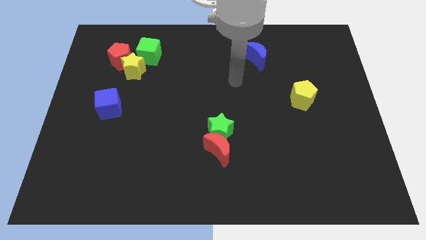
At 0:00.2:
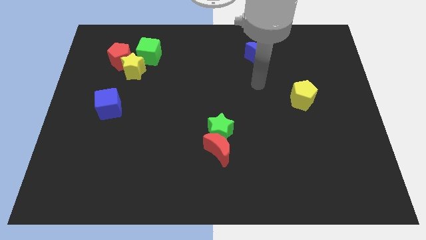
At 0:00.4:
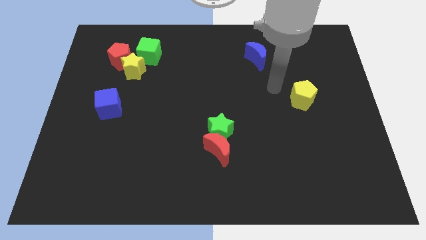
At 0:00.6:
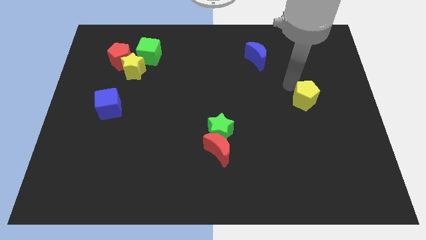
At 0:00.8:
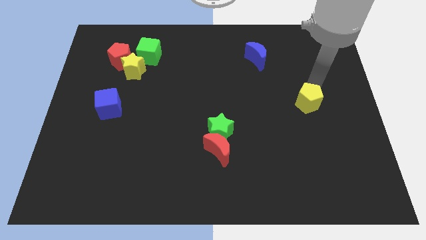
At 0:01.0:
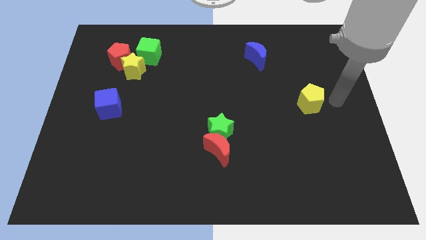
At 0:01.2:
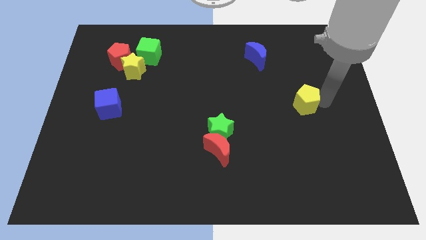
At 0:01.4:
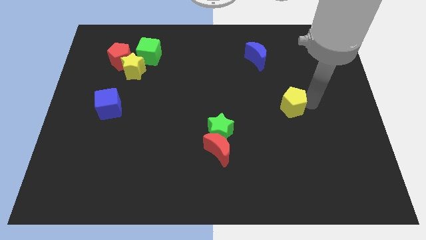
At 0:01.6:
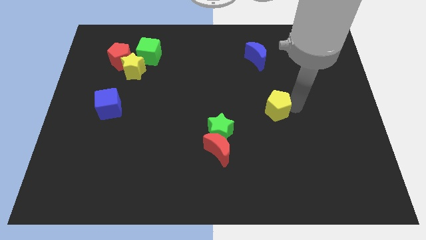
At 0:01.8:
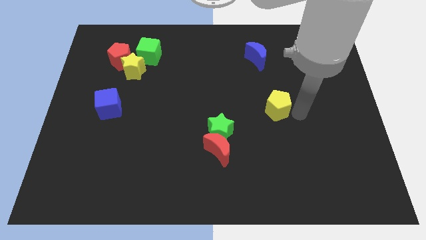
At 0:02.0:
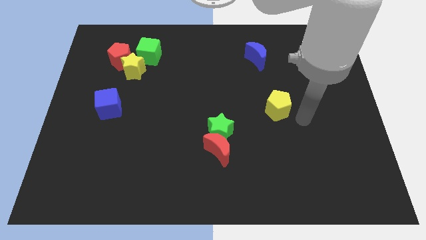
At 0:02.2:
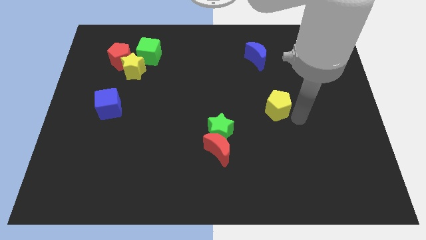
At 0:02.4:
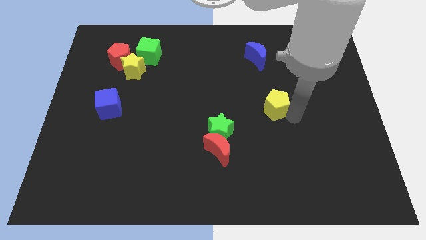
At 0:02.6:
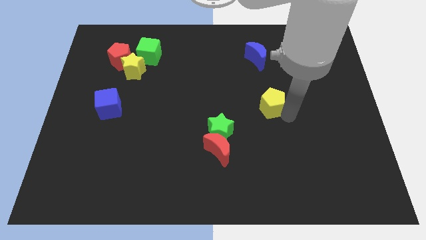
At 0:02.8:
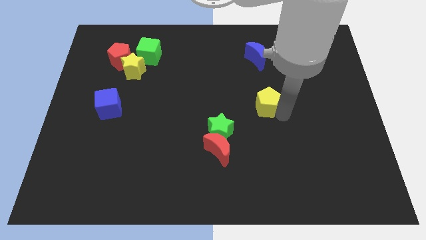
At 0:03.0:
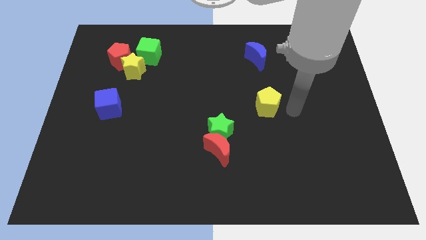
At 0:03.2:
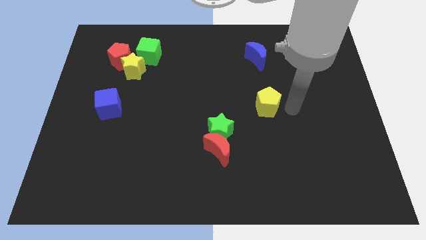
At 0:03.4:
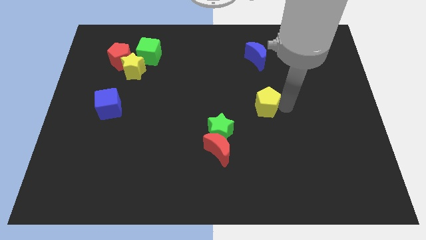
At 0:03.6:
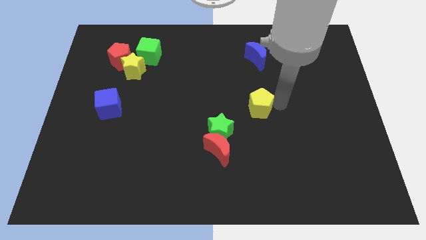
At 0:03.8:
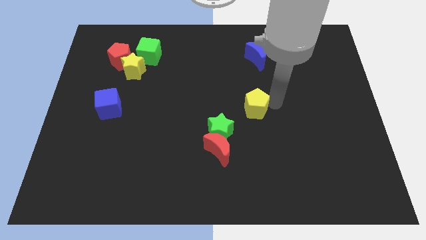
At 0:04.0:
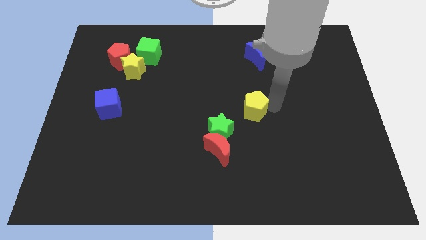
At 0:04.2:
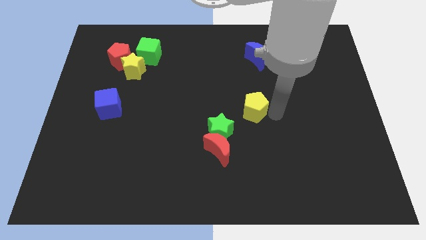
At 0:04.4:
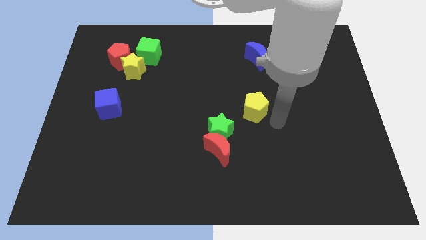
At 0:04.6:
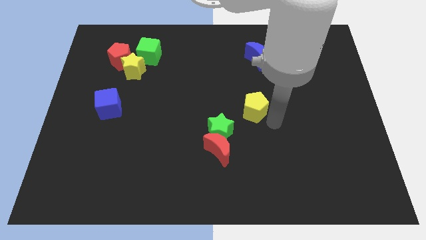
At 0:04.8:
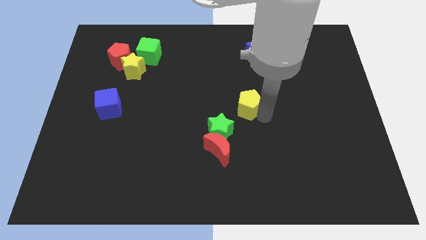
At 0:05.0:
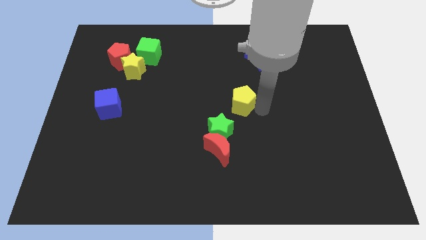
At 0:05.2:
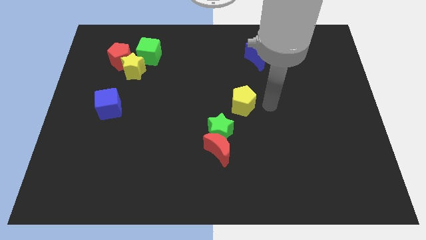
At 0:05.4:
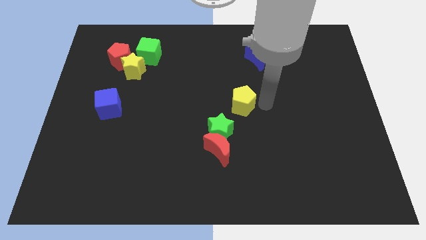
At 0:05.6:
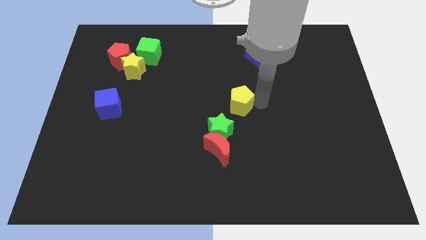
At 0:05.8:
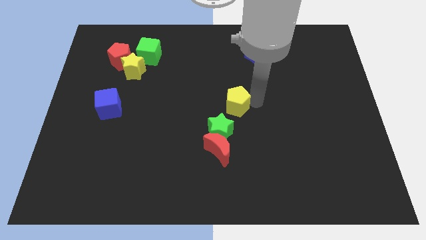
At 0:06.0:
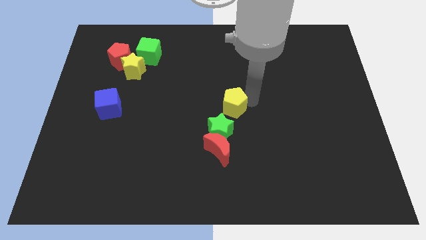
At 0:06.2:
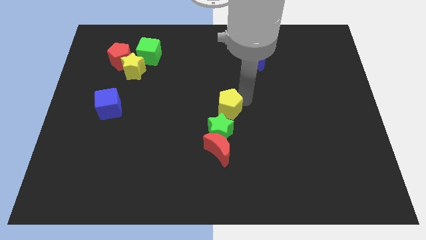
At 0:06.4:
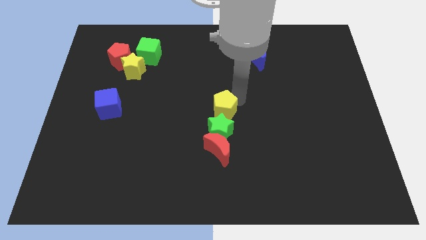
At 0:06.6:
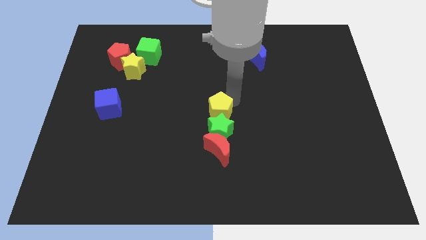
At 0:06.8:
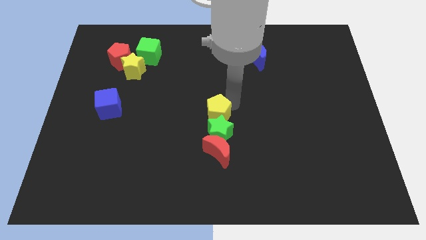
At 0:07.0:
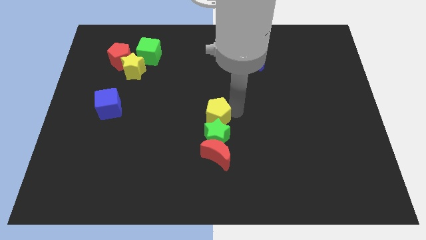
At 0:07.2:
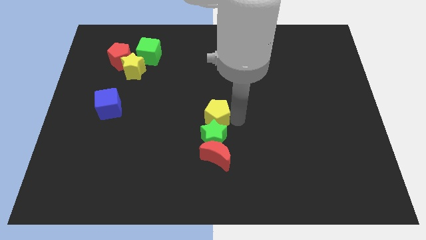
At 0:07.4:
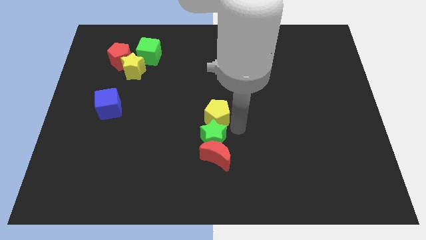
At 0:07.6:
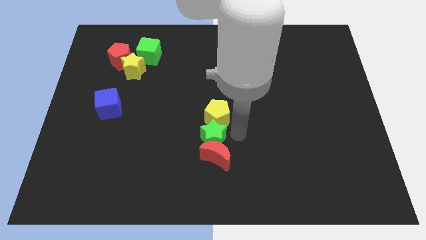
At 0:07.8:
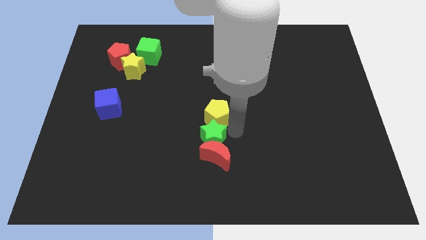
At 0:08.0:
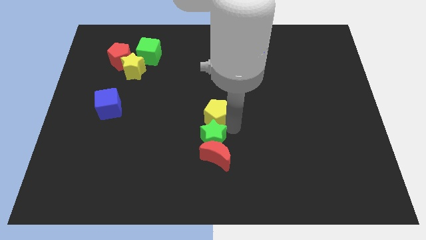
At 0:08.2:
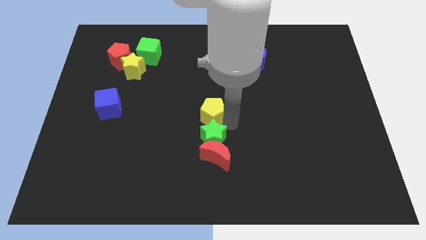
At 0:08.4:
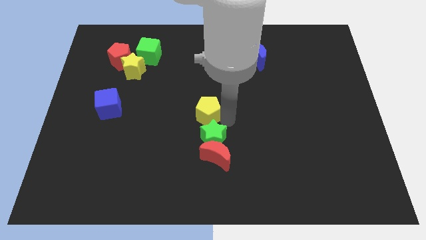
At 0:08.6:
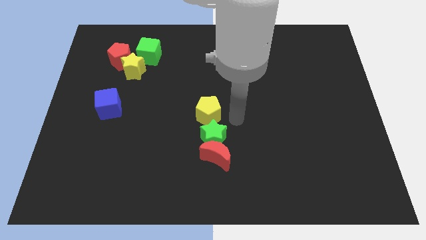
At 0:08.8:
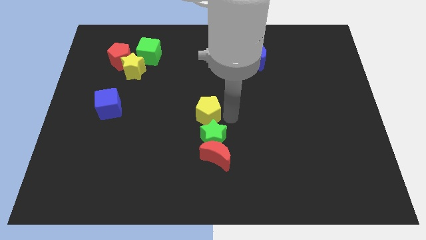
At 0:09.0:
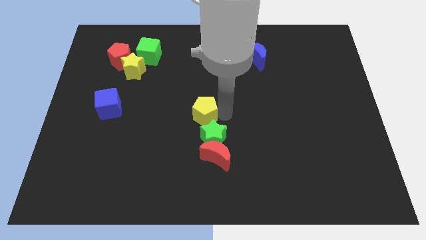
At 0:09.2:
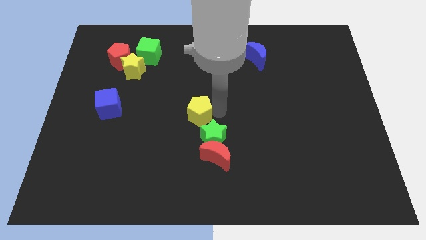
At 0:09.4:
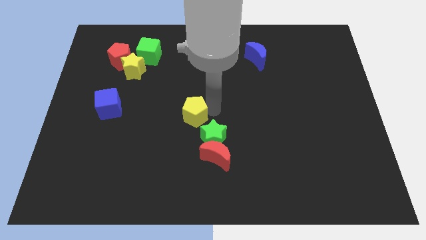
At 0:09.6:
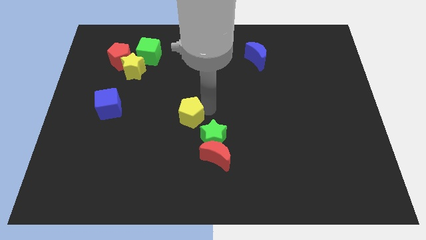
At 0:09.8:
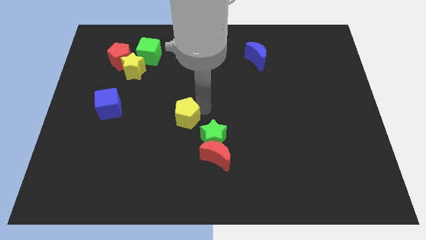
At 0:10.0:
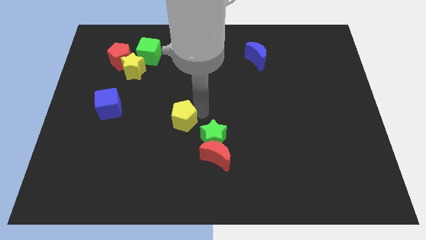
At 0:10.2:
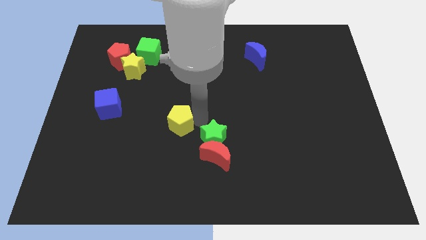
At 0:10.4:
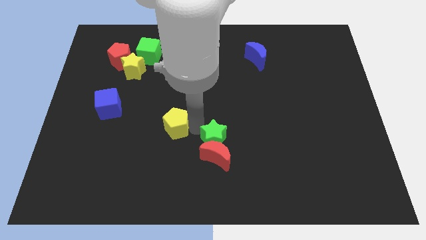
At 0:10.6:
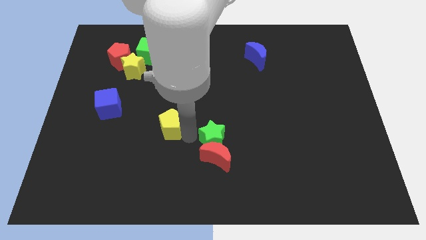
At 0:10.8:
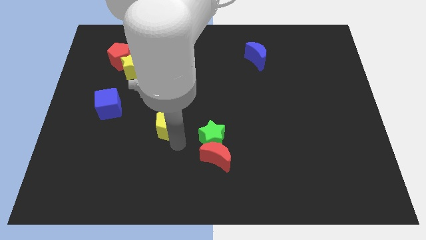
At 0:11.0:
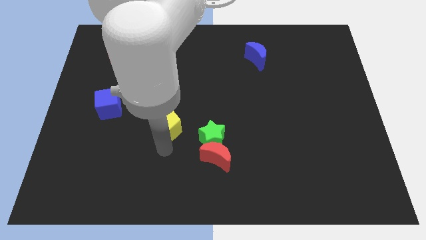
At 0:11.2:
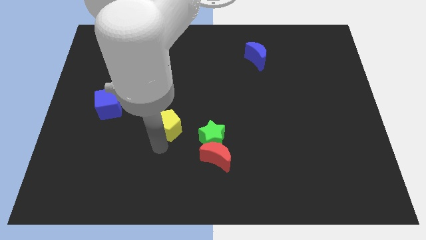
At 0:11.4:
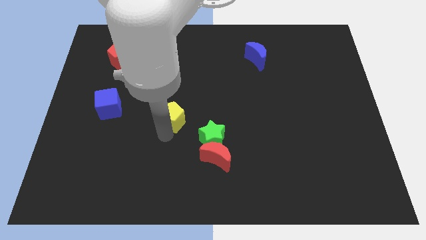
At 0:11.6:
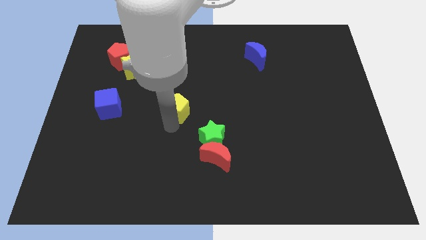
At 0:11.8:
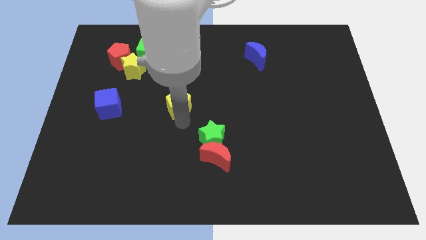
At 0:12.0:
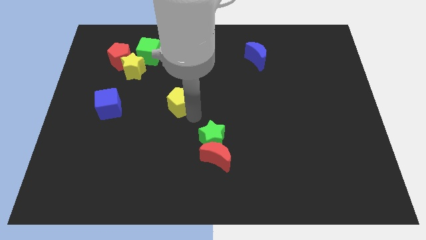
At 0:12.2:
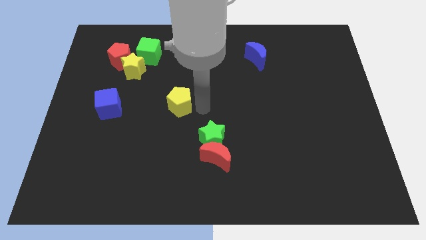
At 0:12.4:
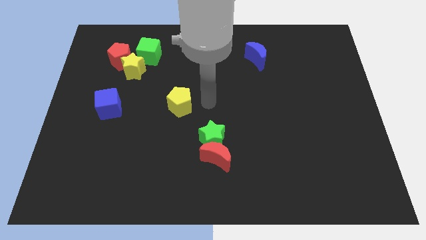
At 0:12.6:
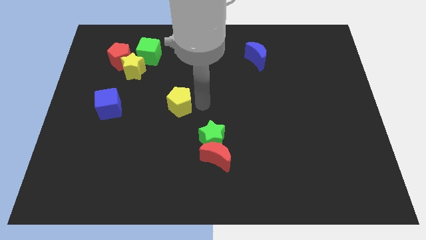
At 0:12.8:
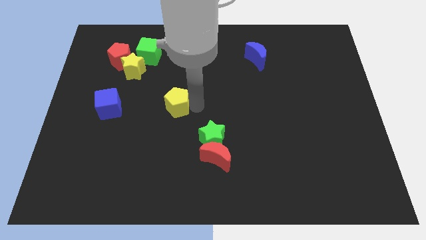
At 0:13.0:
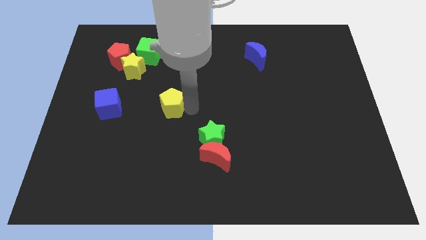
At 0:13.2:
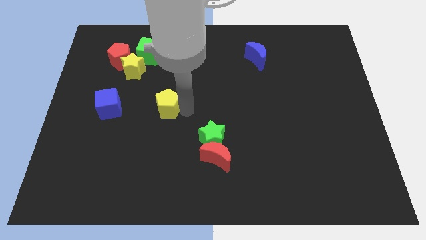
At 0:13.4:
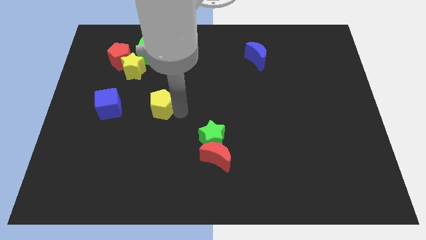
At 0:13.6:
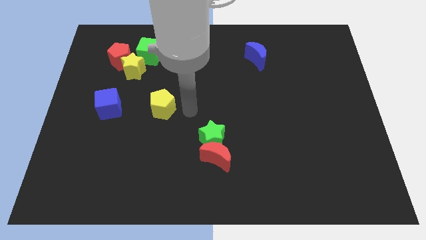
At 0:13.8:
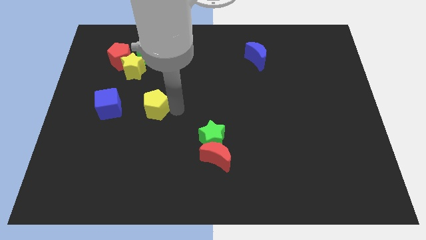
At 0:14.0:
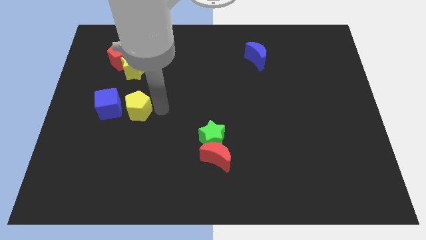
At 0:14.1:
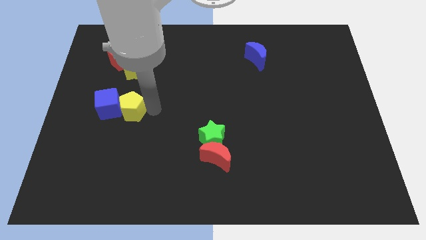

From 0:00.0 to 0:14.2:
slide the yellow pentagon close to the blue cube
